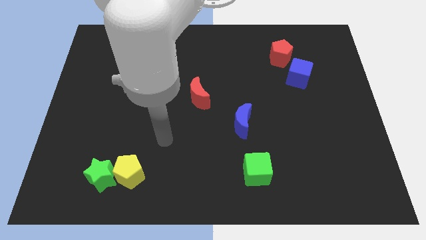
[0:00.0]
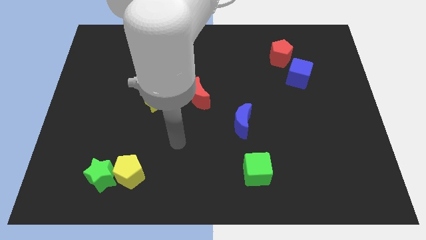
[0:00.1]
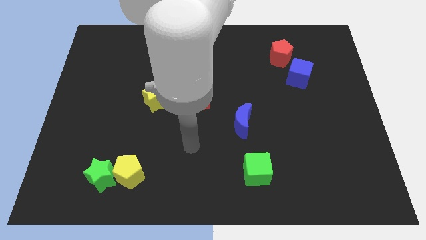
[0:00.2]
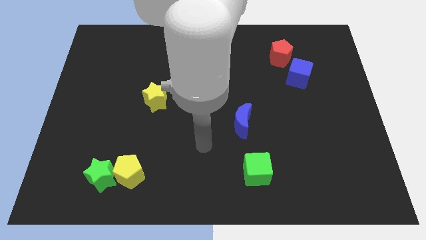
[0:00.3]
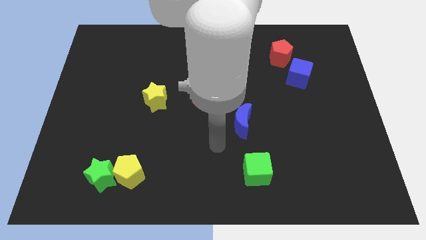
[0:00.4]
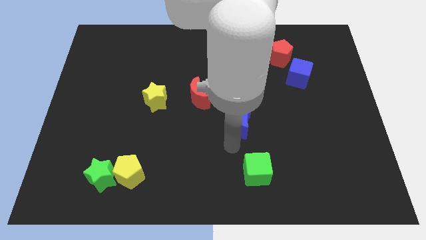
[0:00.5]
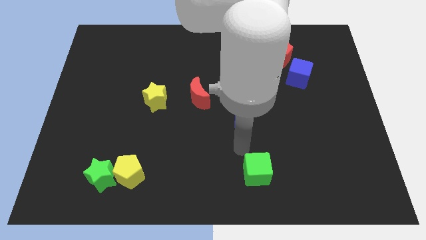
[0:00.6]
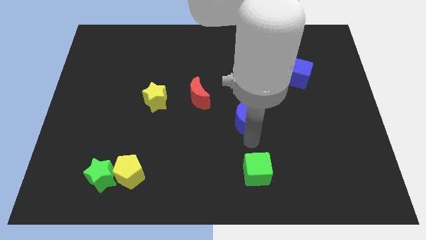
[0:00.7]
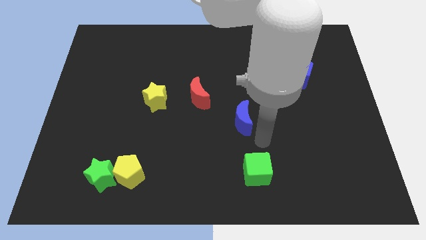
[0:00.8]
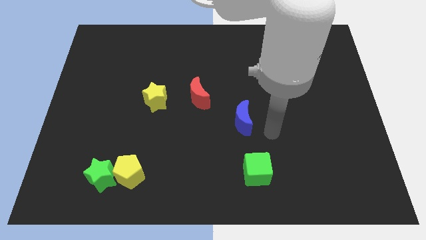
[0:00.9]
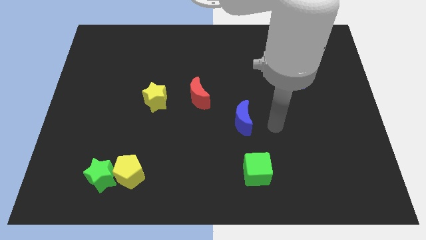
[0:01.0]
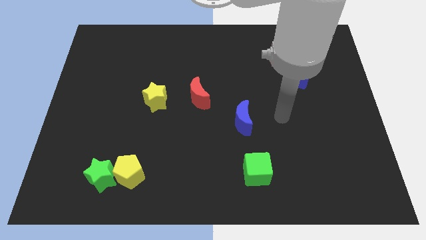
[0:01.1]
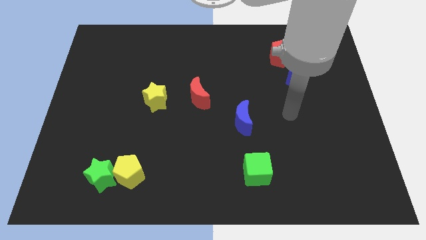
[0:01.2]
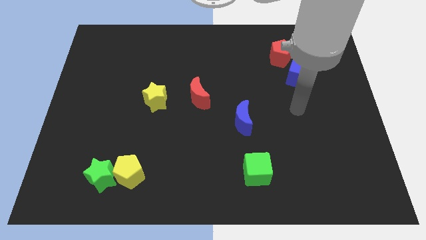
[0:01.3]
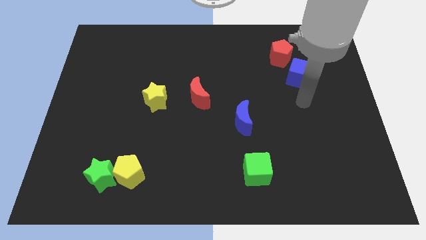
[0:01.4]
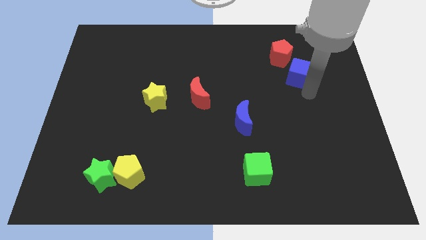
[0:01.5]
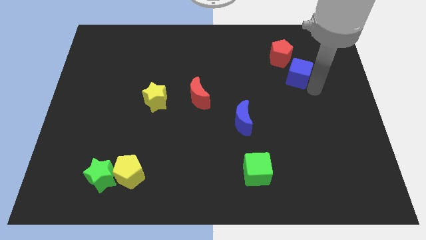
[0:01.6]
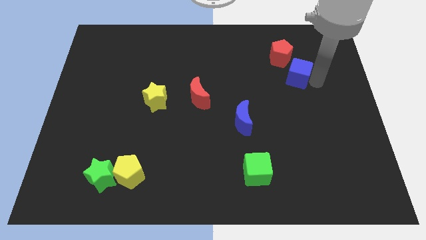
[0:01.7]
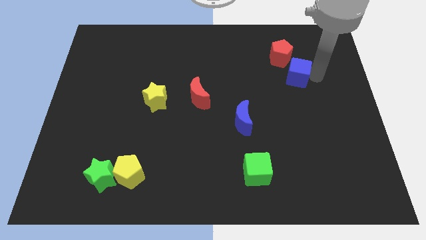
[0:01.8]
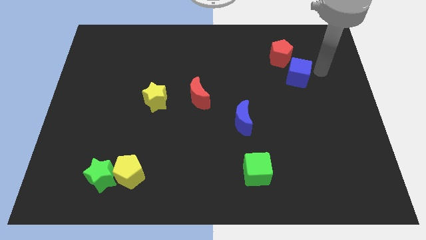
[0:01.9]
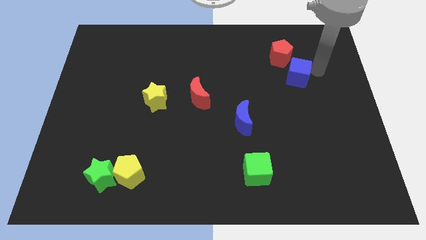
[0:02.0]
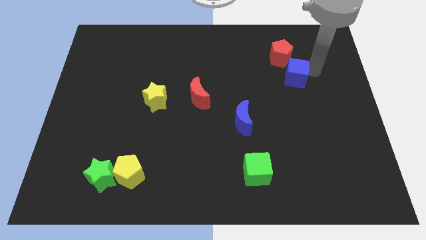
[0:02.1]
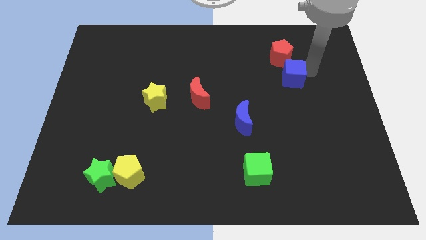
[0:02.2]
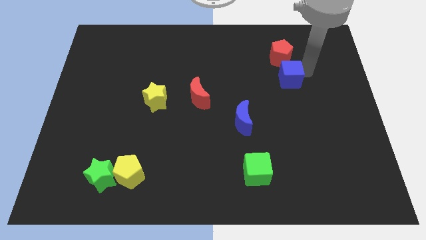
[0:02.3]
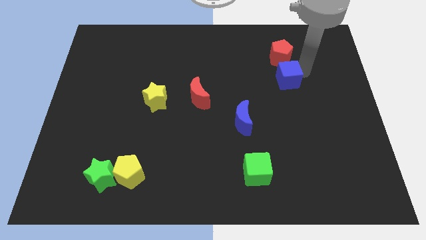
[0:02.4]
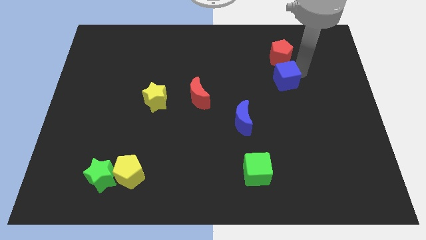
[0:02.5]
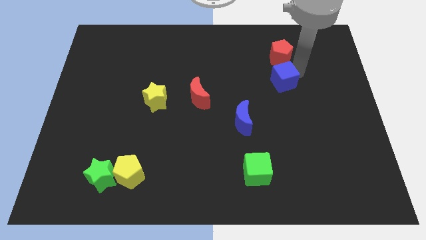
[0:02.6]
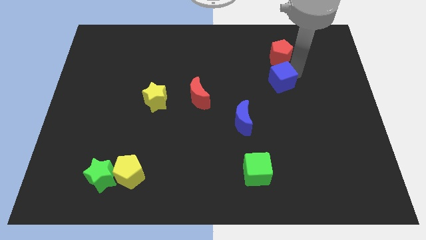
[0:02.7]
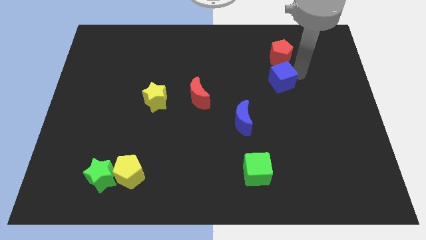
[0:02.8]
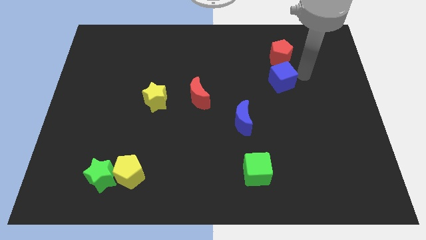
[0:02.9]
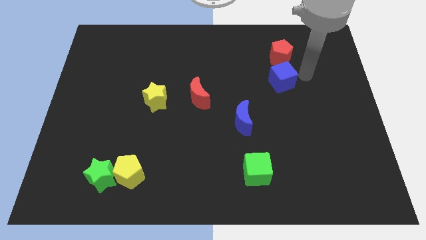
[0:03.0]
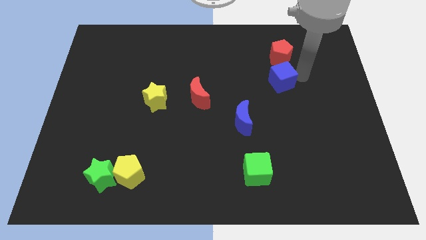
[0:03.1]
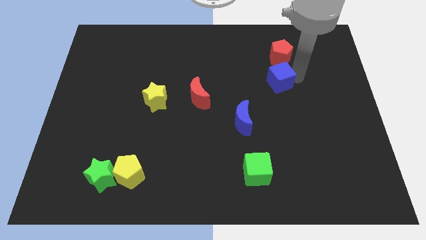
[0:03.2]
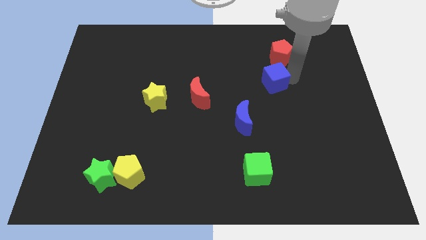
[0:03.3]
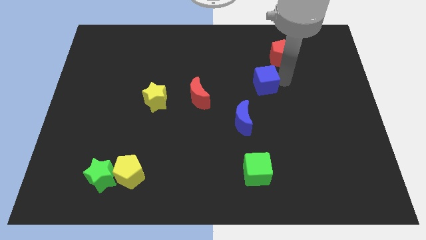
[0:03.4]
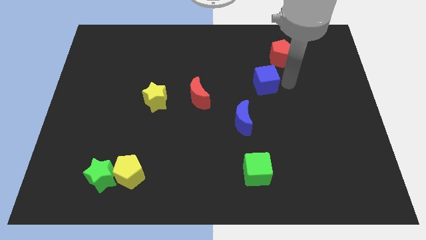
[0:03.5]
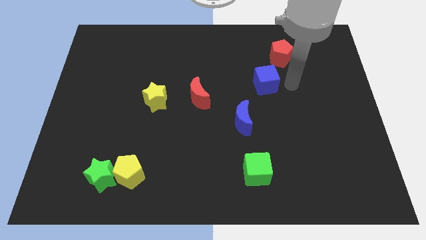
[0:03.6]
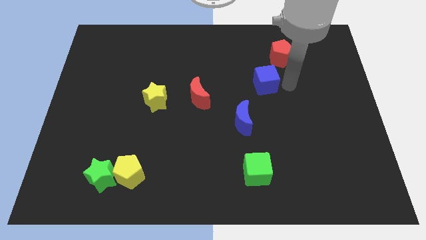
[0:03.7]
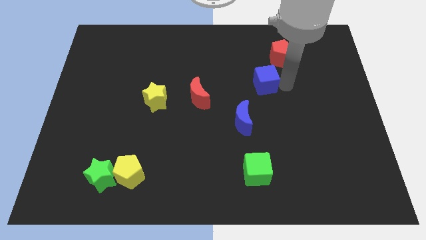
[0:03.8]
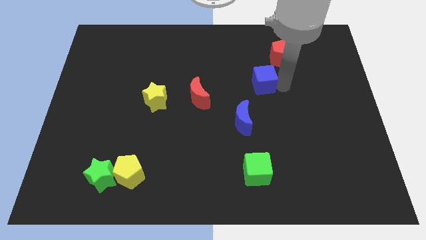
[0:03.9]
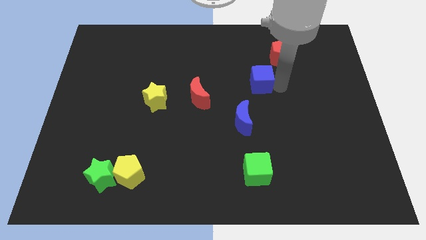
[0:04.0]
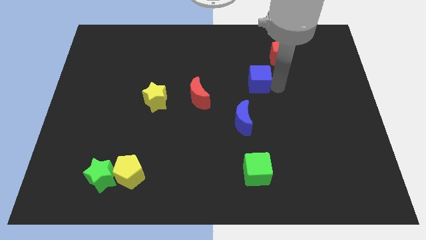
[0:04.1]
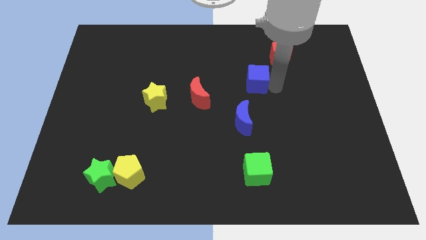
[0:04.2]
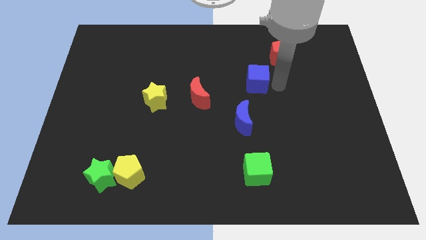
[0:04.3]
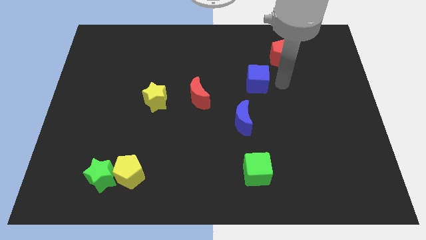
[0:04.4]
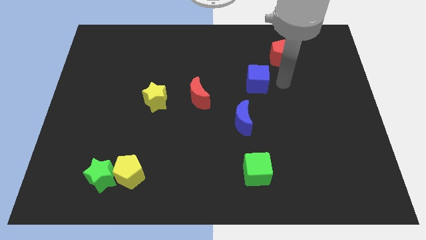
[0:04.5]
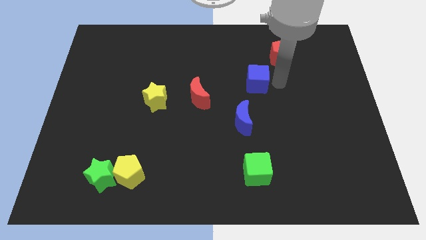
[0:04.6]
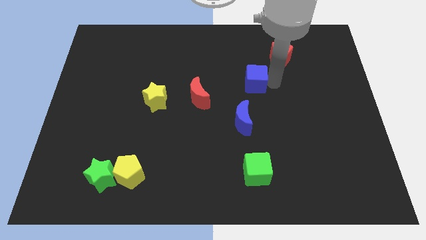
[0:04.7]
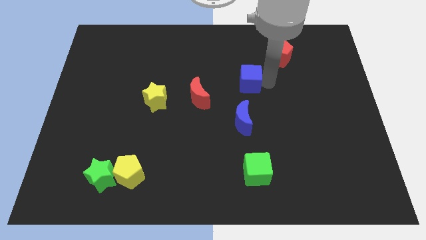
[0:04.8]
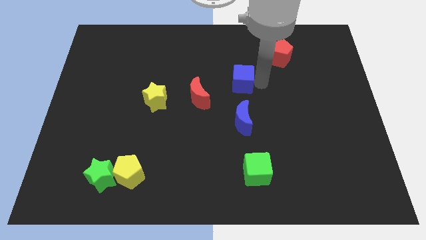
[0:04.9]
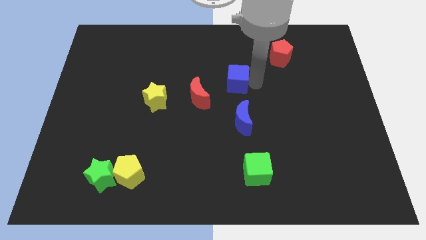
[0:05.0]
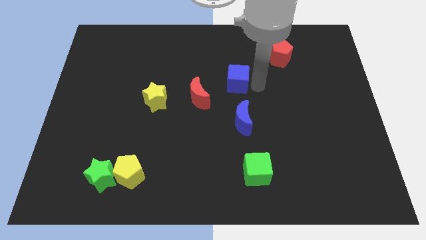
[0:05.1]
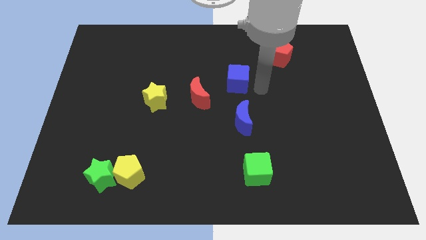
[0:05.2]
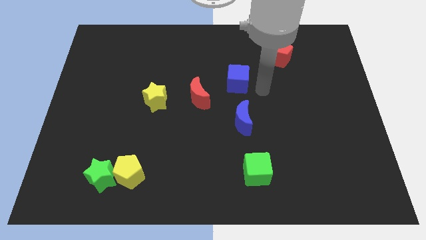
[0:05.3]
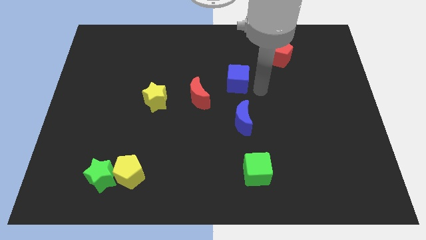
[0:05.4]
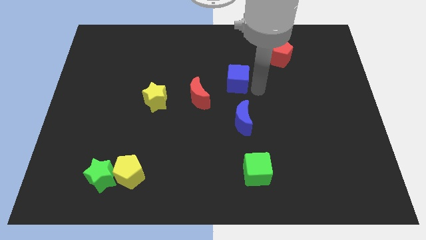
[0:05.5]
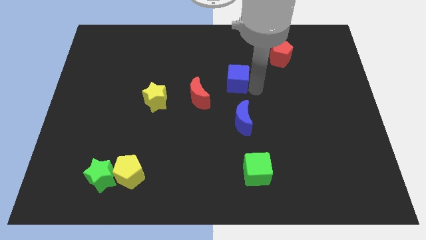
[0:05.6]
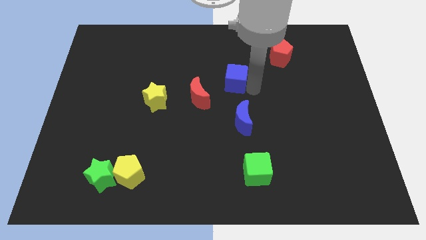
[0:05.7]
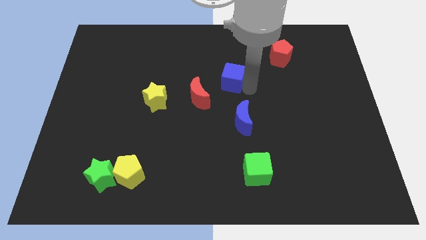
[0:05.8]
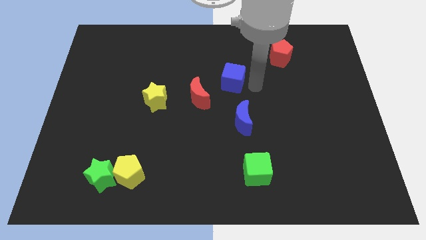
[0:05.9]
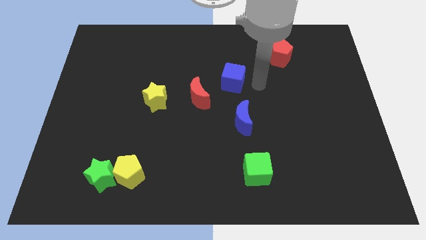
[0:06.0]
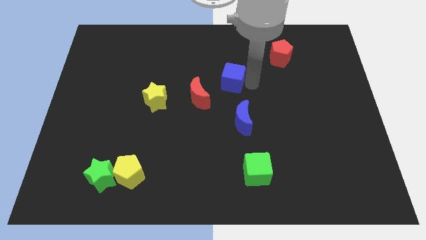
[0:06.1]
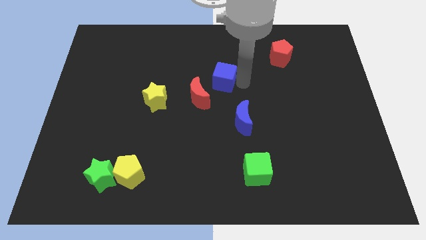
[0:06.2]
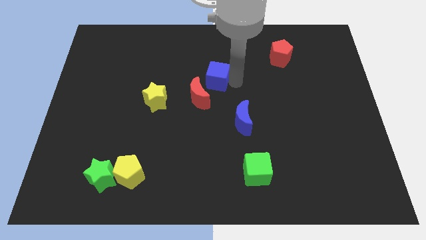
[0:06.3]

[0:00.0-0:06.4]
slide the blue cube left

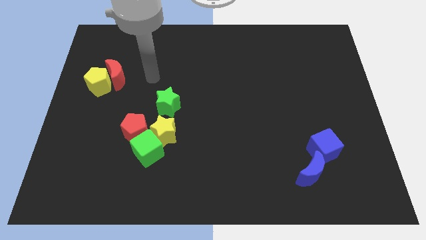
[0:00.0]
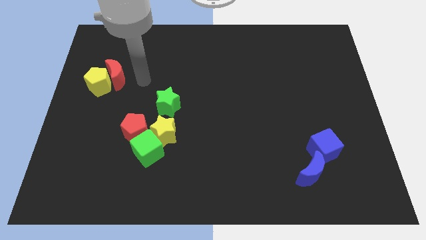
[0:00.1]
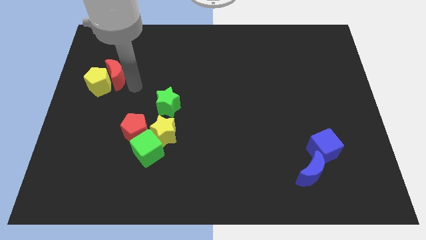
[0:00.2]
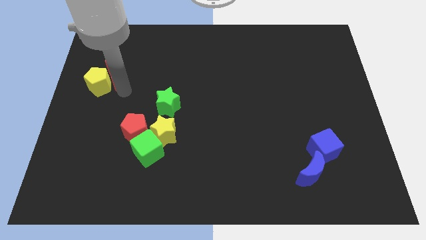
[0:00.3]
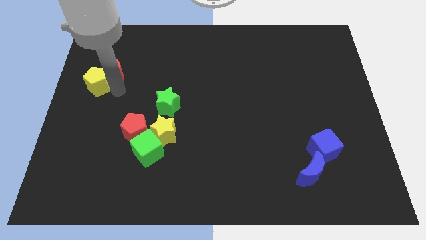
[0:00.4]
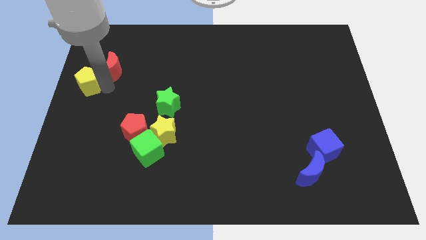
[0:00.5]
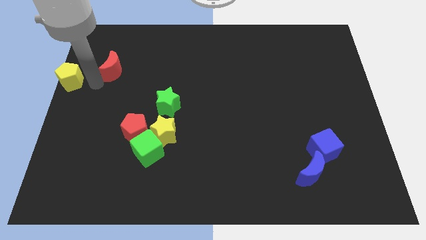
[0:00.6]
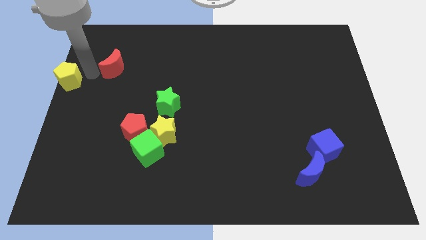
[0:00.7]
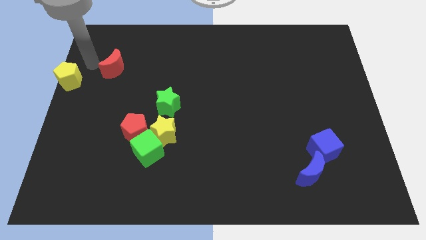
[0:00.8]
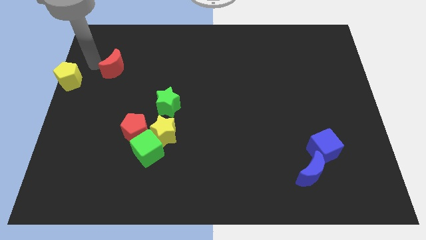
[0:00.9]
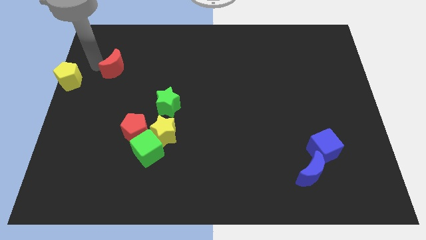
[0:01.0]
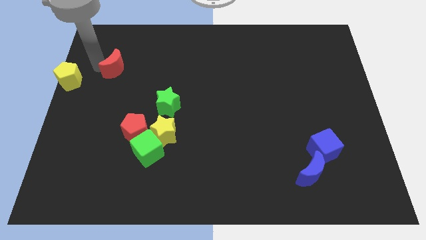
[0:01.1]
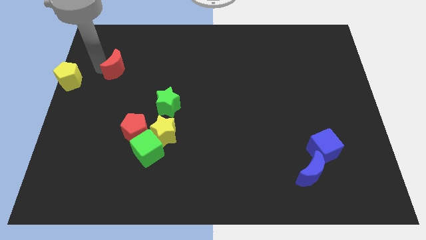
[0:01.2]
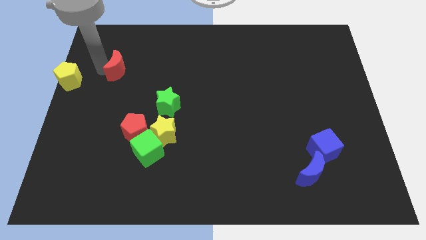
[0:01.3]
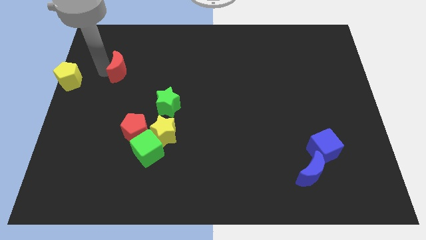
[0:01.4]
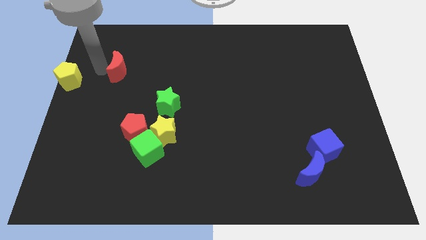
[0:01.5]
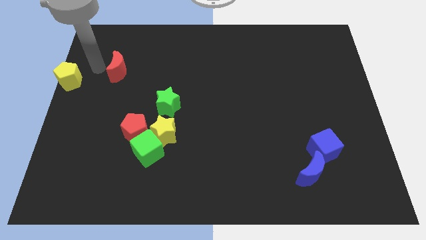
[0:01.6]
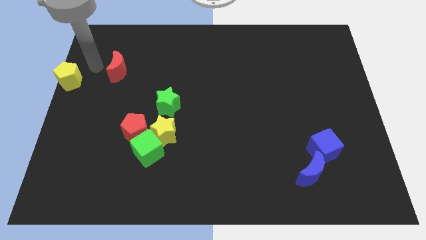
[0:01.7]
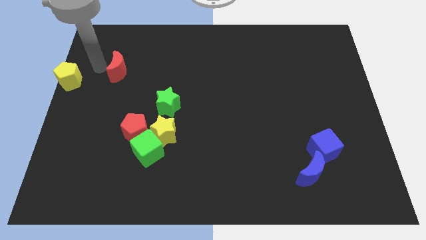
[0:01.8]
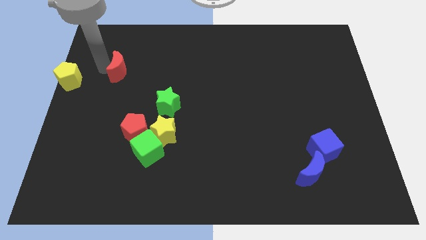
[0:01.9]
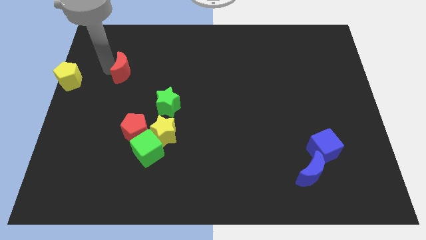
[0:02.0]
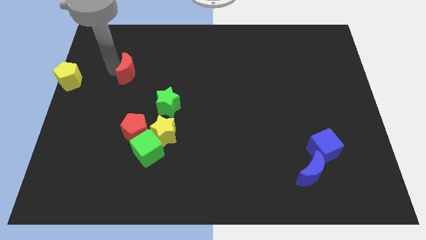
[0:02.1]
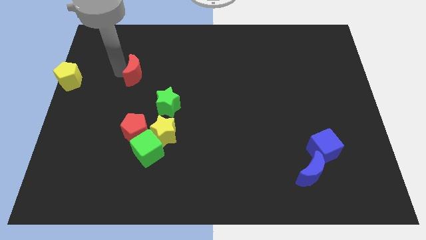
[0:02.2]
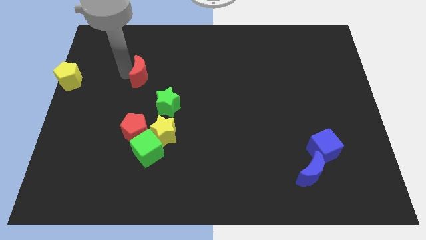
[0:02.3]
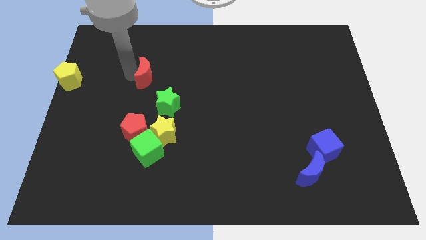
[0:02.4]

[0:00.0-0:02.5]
slightly move the red moon to the right
